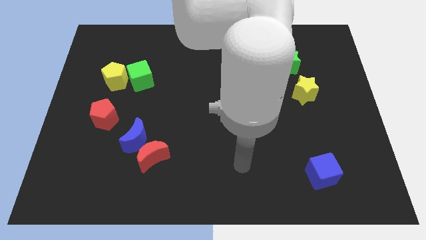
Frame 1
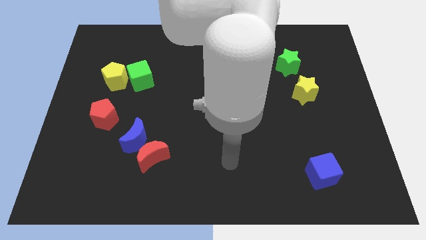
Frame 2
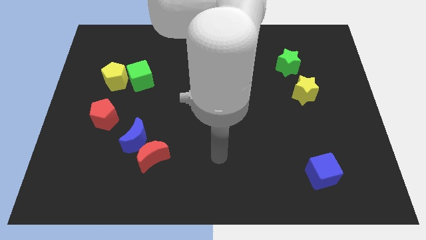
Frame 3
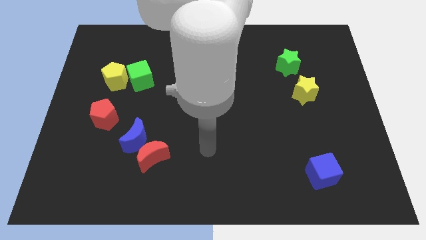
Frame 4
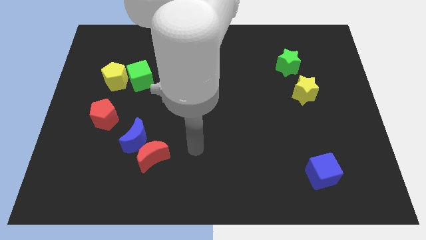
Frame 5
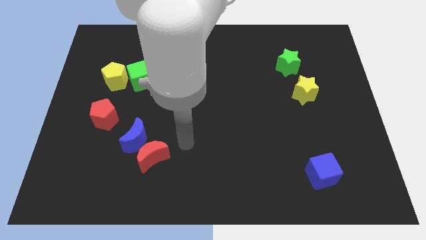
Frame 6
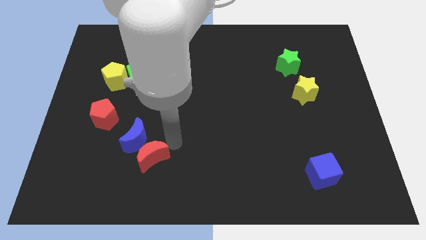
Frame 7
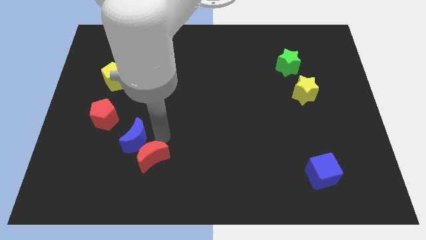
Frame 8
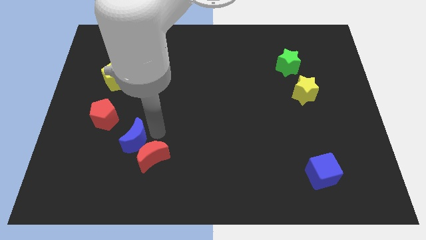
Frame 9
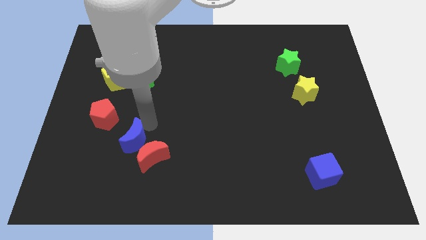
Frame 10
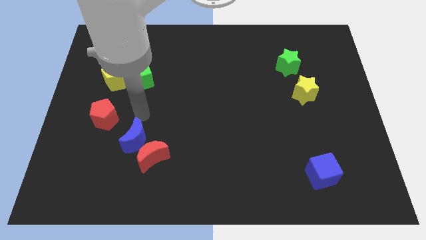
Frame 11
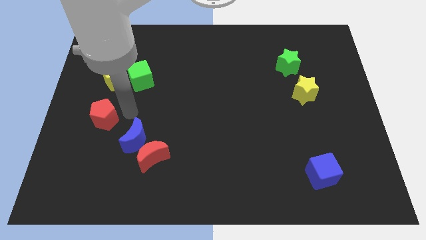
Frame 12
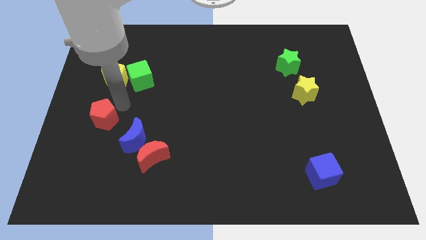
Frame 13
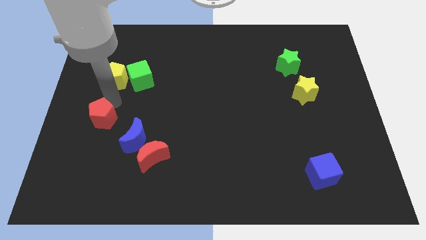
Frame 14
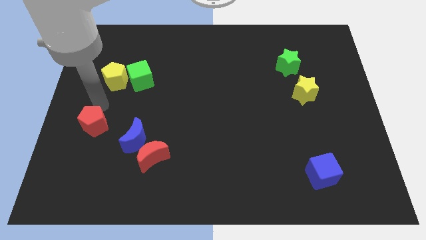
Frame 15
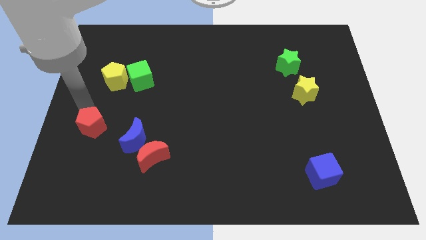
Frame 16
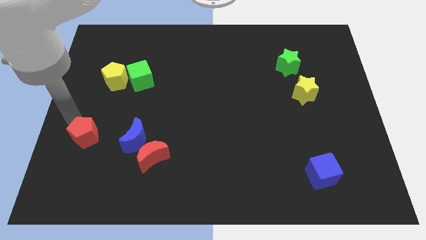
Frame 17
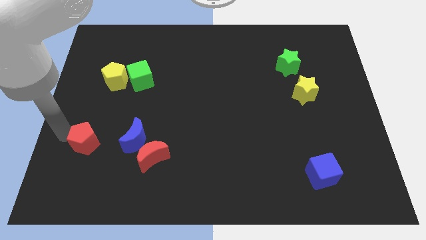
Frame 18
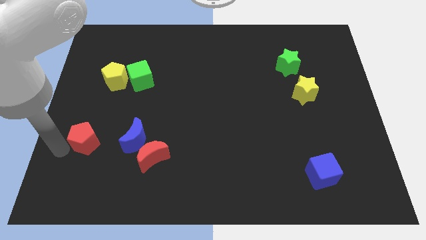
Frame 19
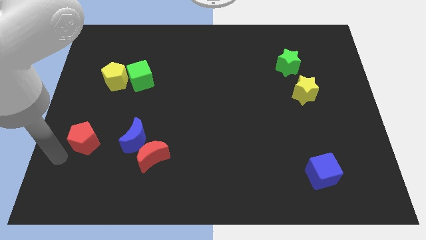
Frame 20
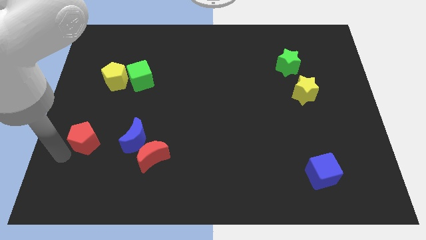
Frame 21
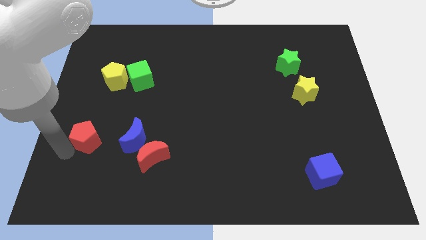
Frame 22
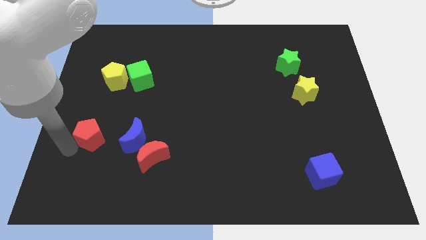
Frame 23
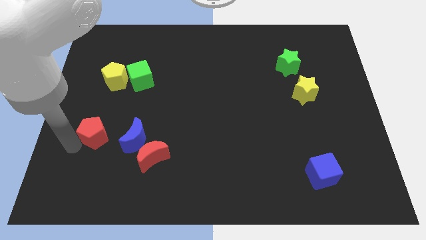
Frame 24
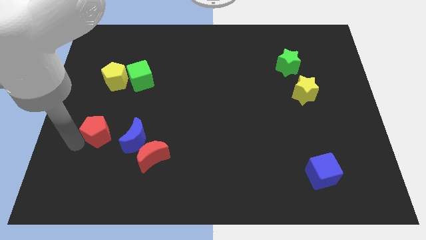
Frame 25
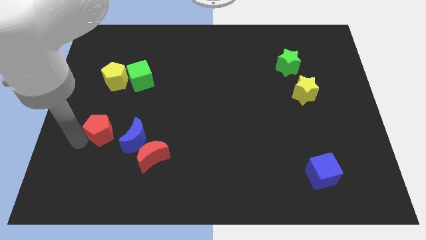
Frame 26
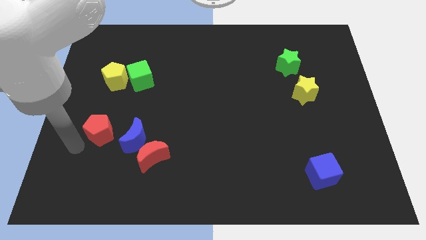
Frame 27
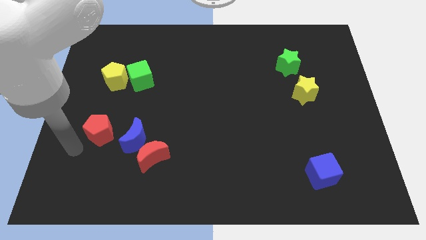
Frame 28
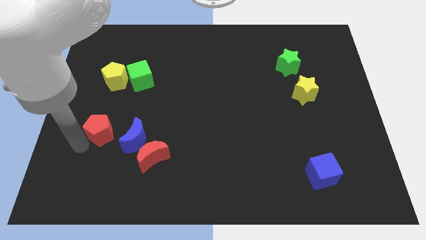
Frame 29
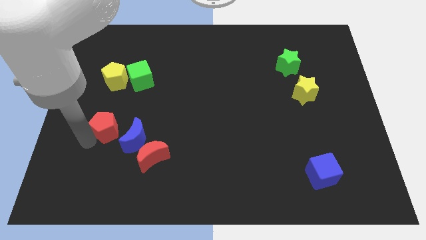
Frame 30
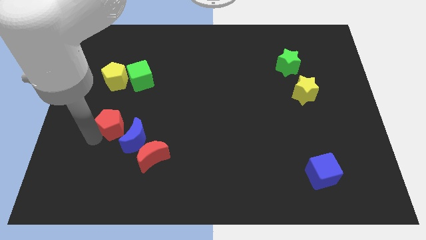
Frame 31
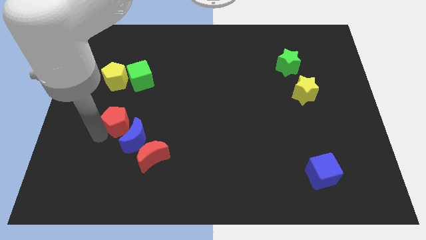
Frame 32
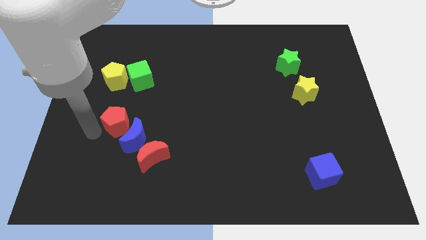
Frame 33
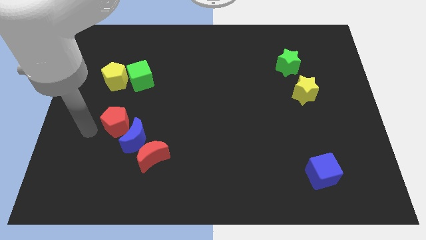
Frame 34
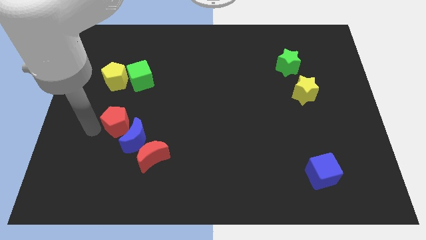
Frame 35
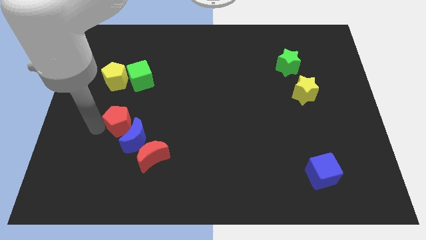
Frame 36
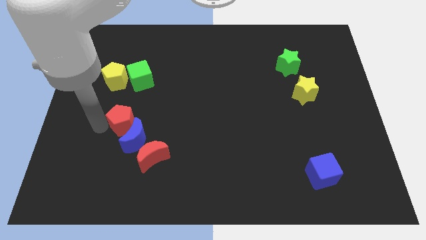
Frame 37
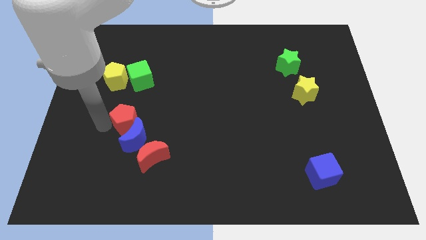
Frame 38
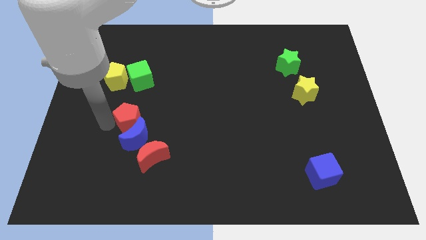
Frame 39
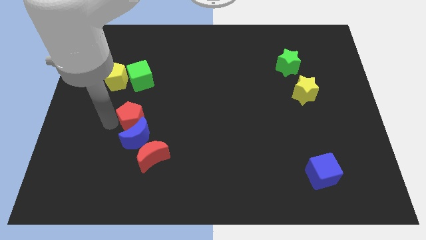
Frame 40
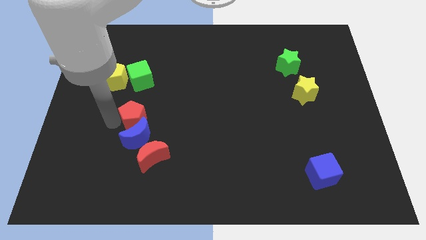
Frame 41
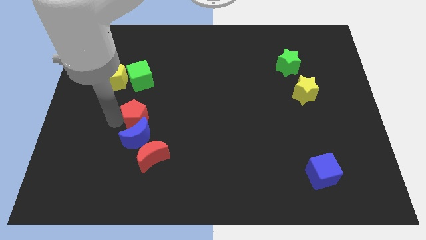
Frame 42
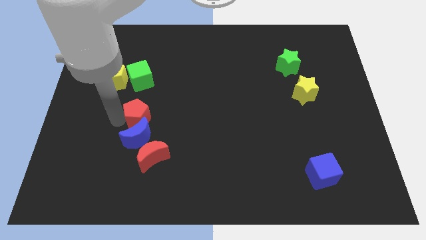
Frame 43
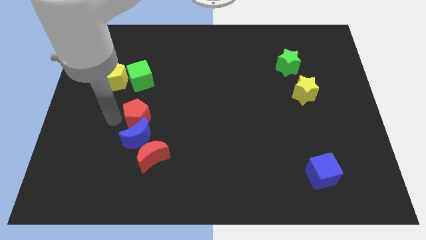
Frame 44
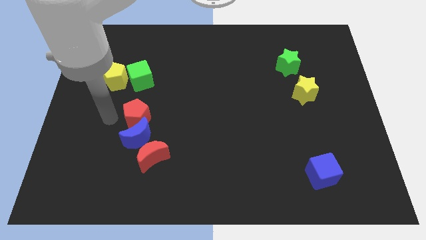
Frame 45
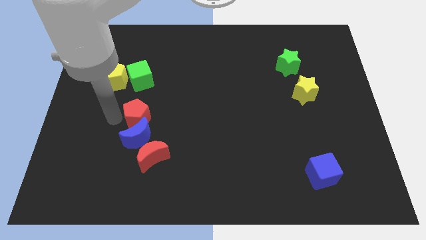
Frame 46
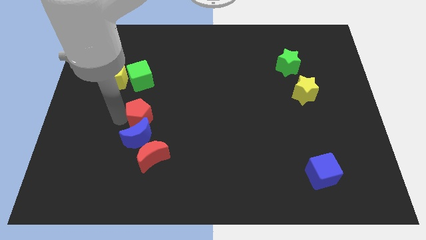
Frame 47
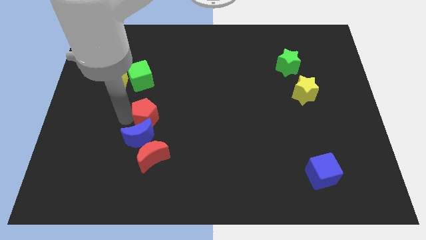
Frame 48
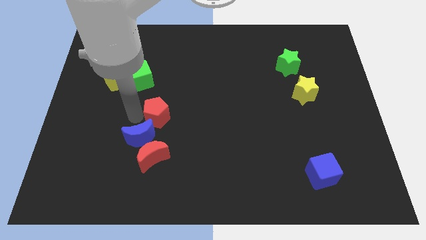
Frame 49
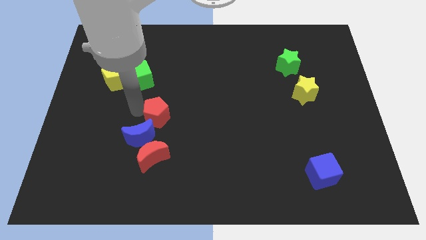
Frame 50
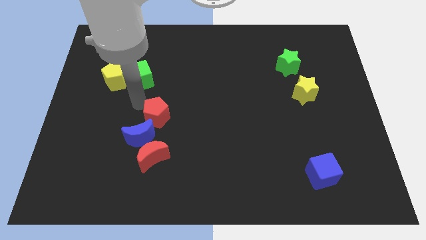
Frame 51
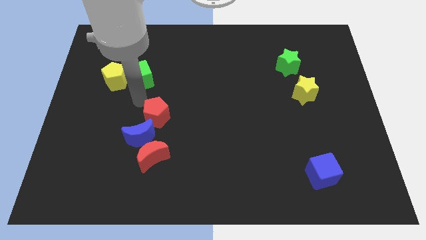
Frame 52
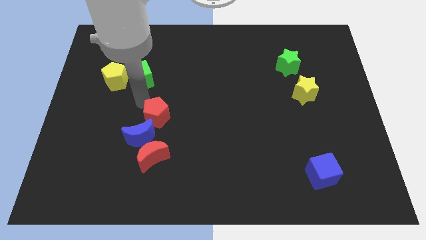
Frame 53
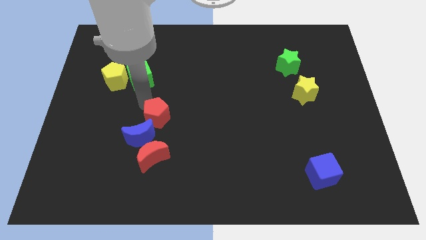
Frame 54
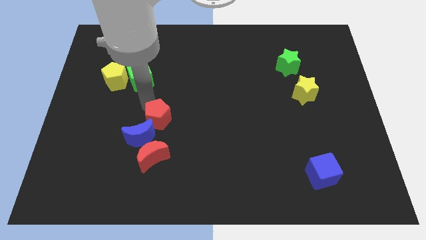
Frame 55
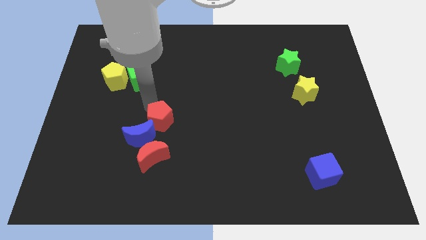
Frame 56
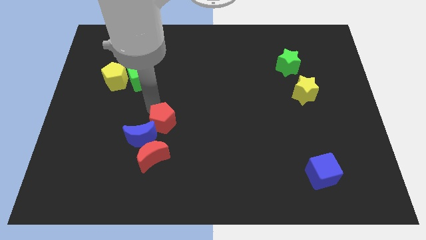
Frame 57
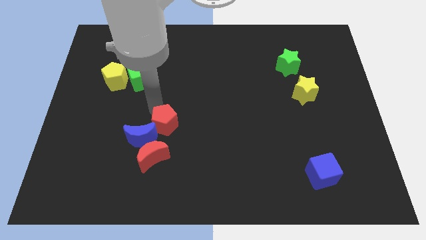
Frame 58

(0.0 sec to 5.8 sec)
slide the red pentagon diagonally up and to the right of the red moon

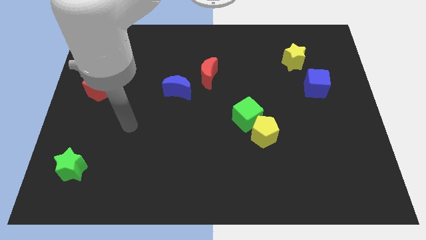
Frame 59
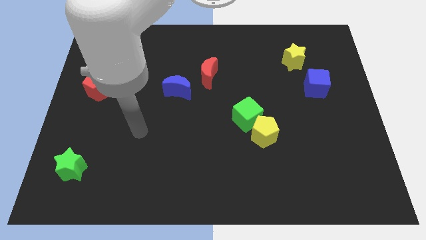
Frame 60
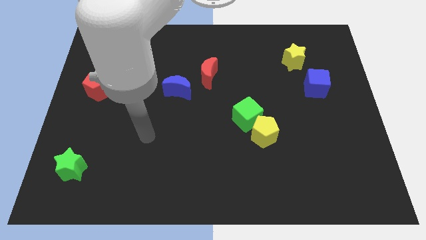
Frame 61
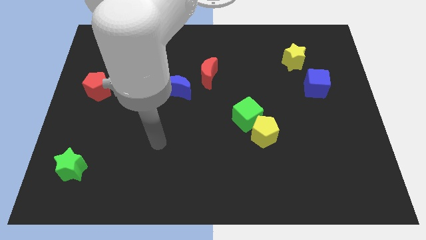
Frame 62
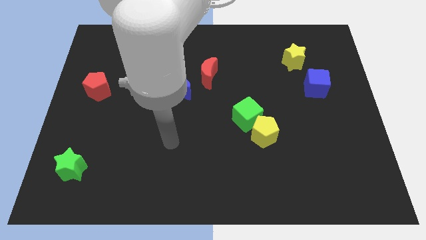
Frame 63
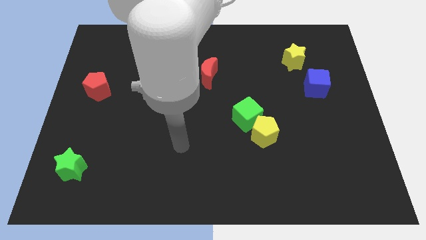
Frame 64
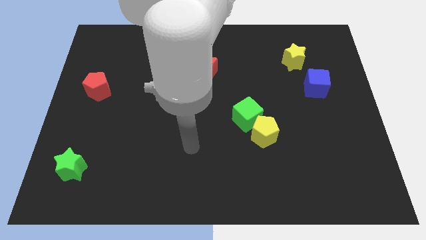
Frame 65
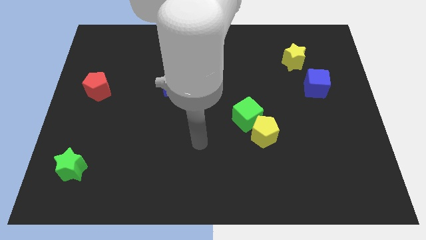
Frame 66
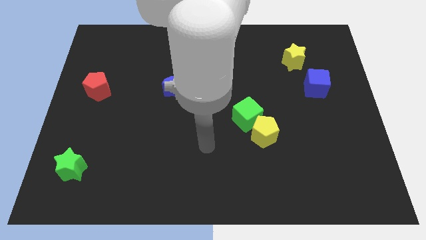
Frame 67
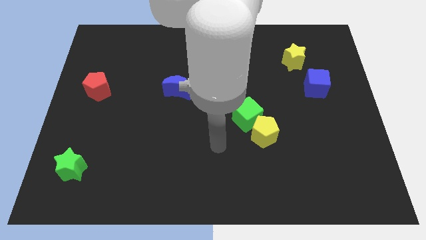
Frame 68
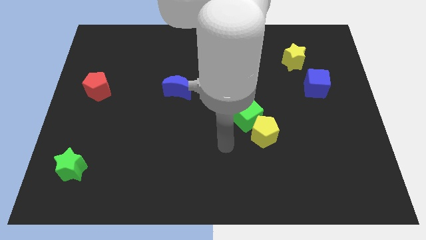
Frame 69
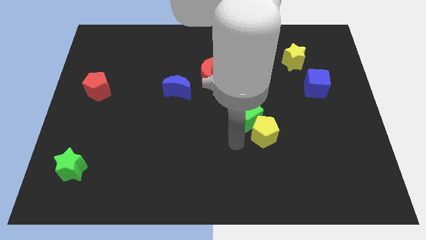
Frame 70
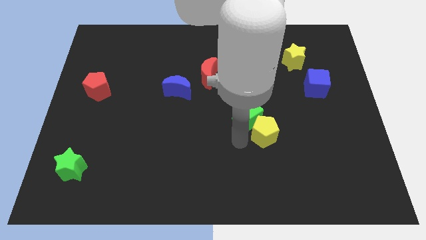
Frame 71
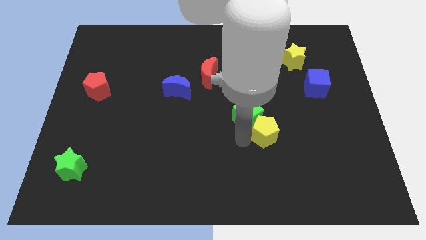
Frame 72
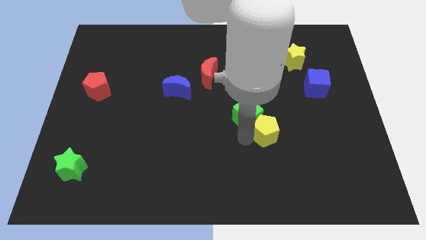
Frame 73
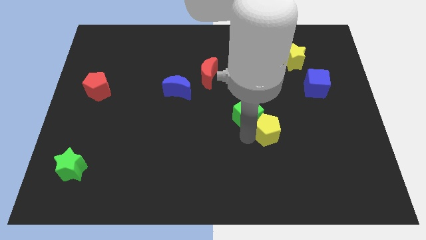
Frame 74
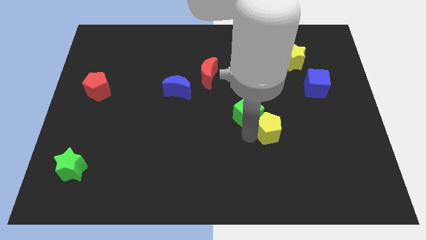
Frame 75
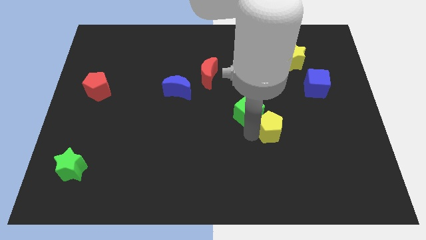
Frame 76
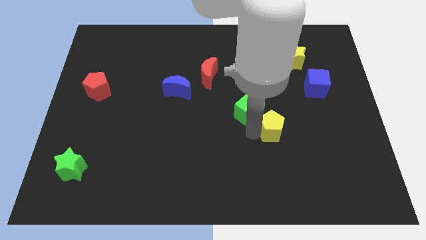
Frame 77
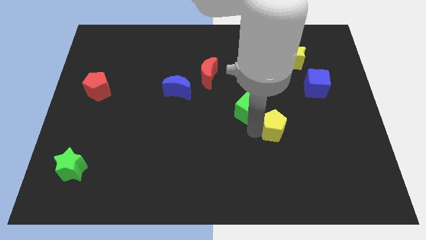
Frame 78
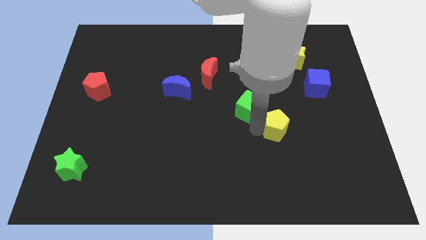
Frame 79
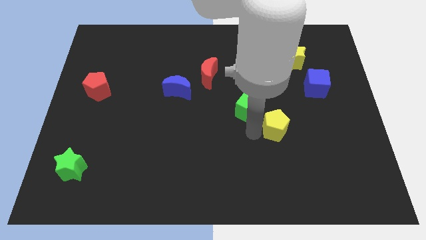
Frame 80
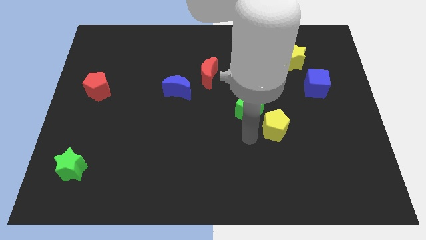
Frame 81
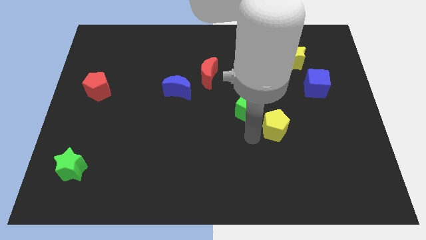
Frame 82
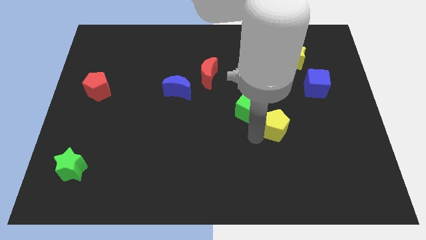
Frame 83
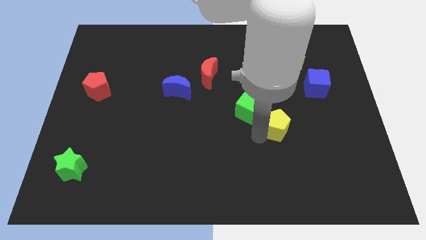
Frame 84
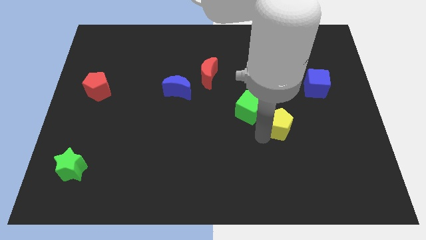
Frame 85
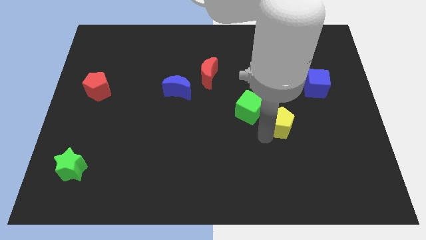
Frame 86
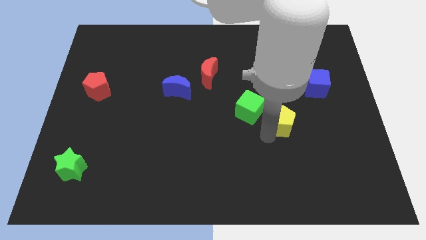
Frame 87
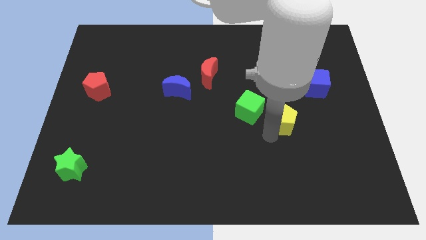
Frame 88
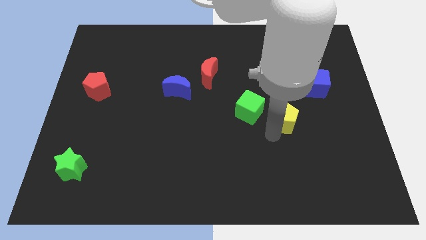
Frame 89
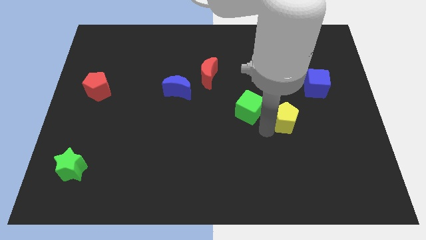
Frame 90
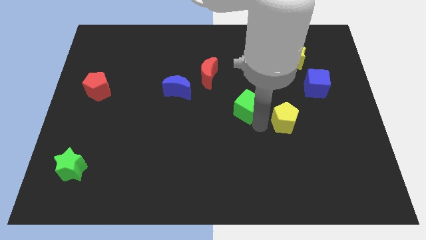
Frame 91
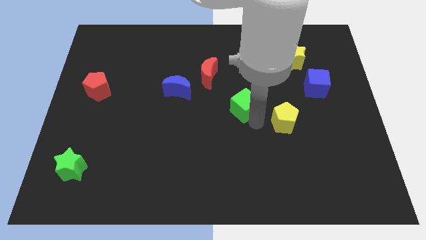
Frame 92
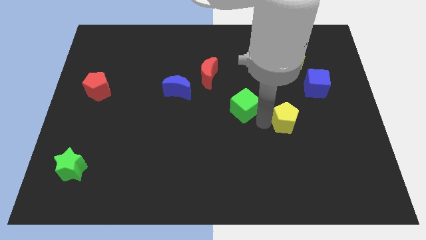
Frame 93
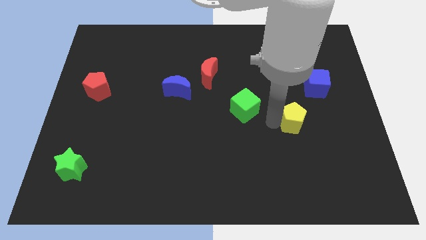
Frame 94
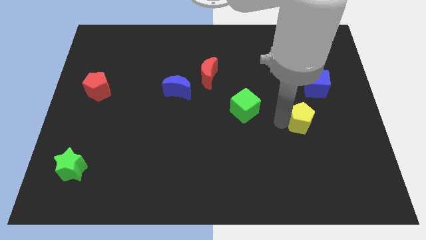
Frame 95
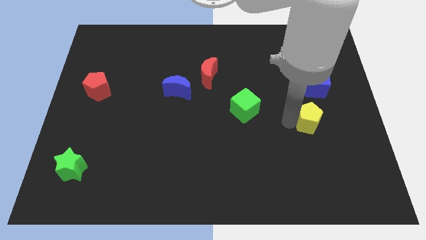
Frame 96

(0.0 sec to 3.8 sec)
push the yellow pentagon to the bottom side of the blue cube
